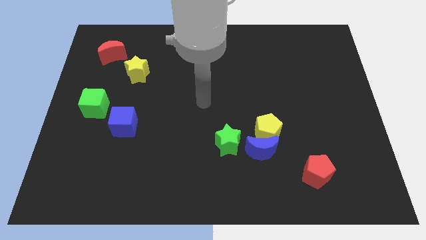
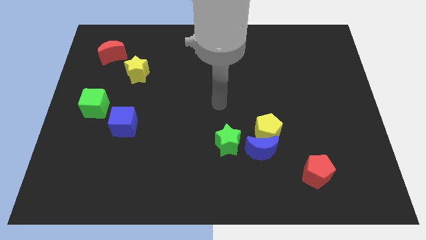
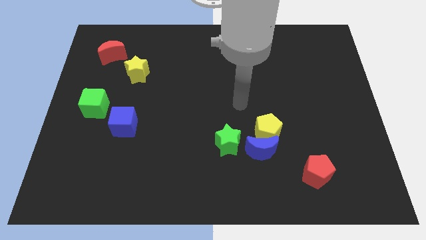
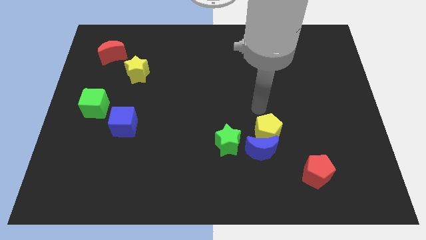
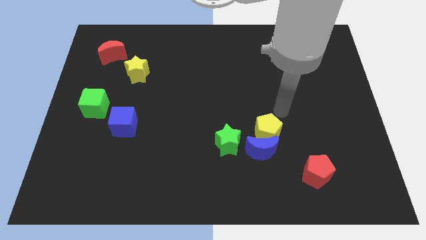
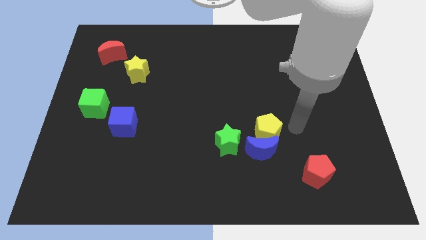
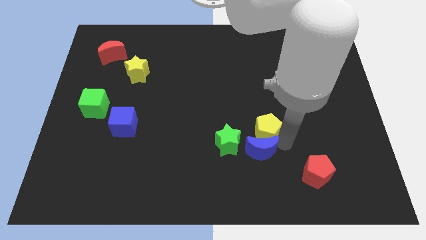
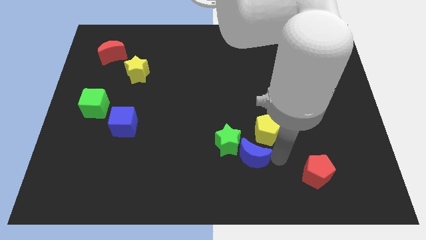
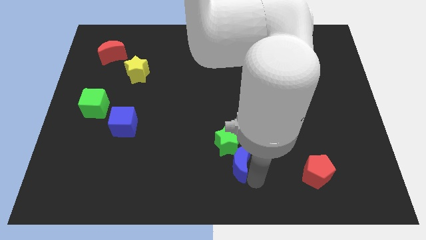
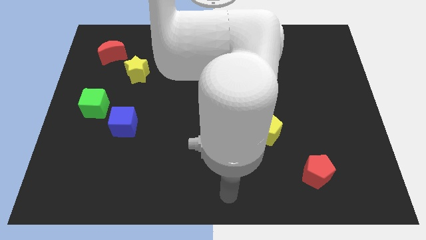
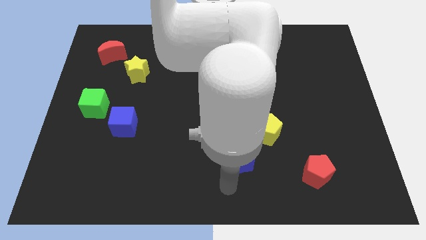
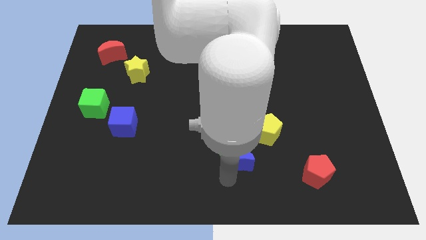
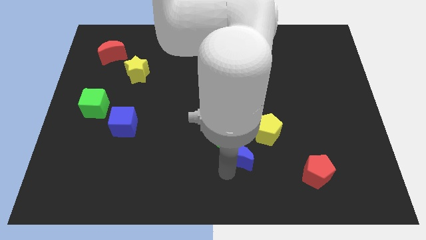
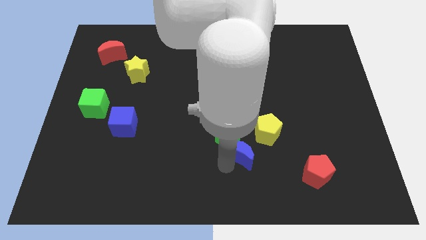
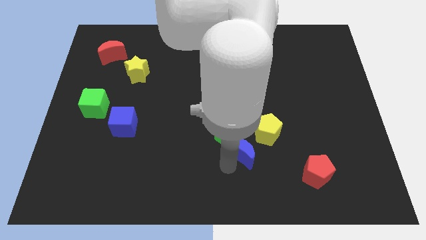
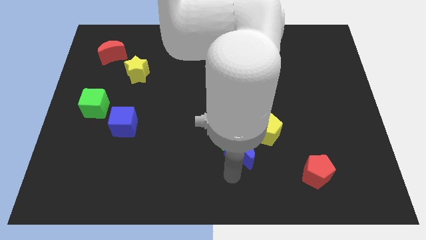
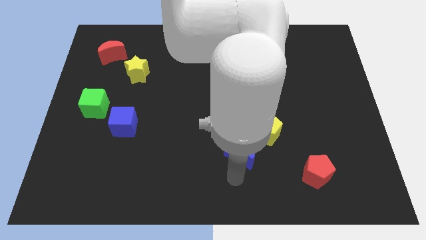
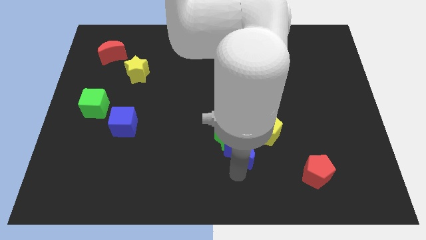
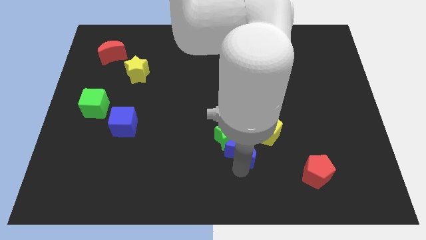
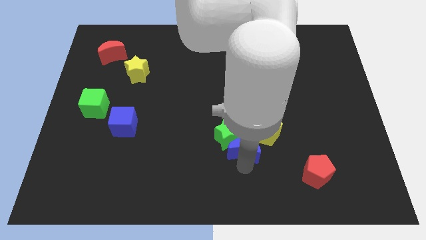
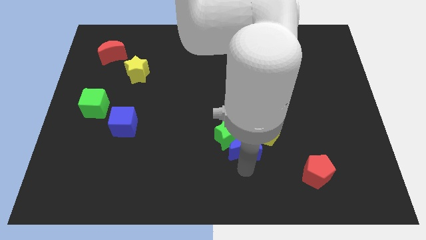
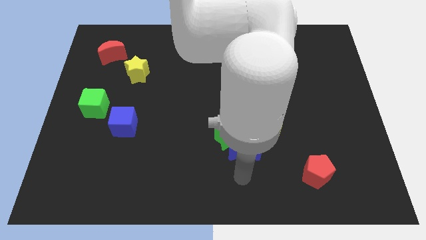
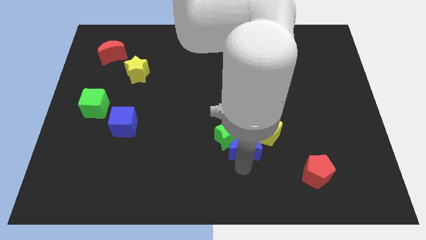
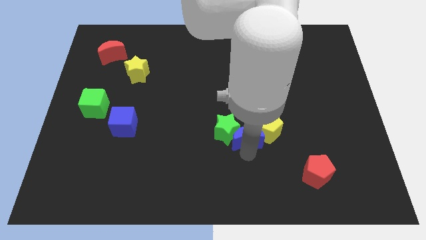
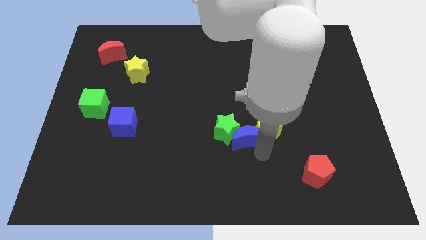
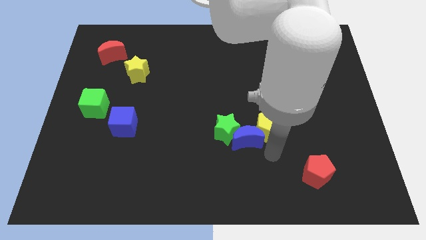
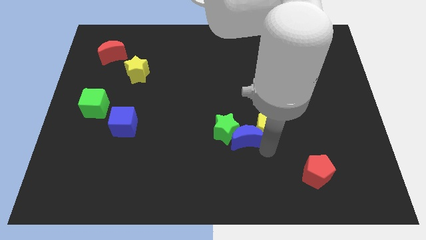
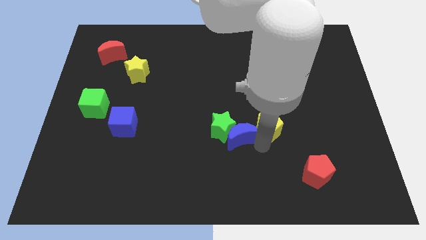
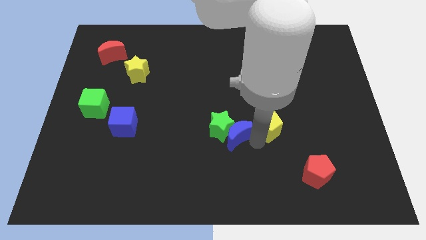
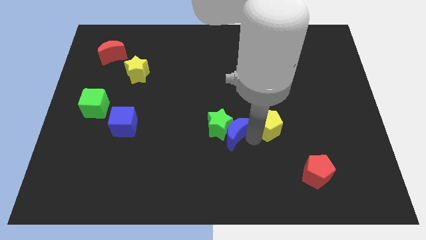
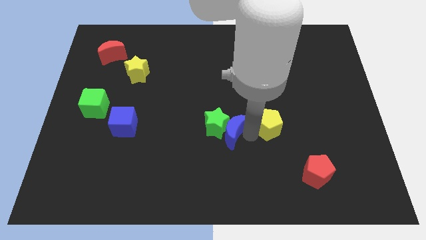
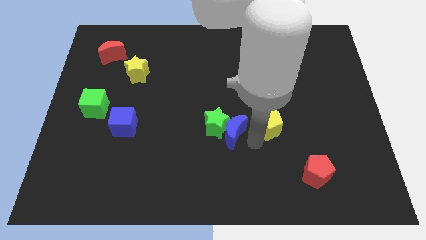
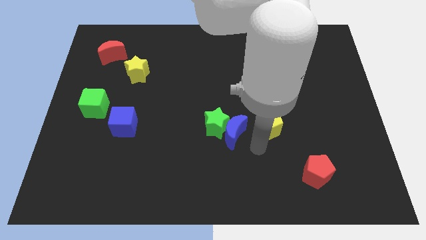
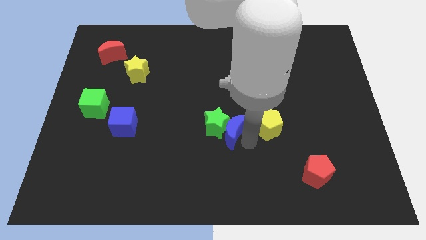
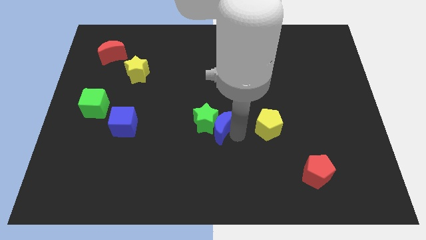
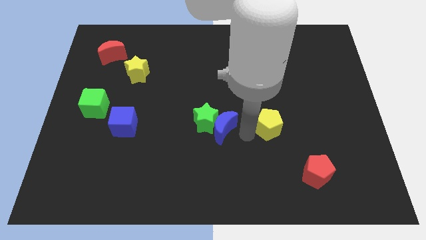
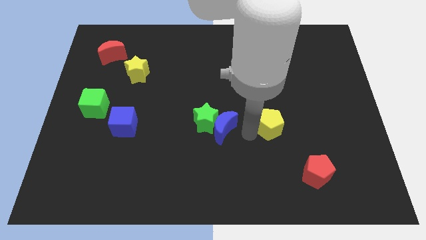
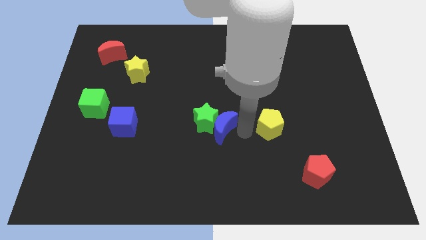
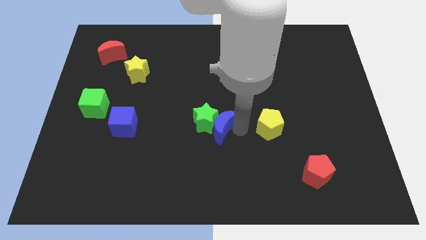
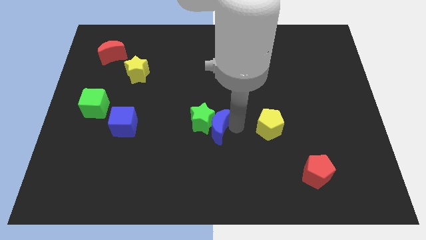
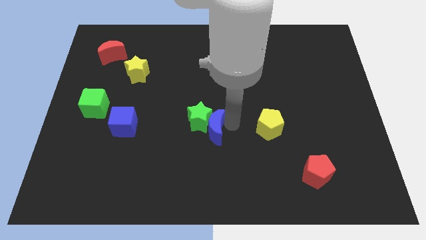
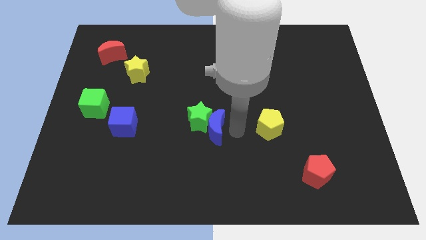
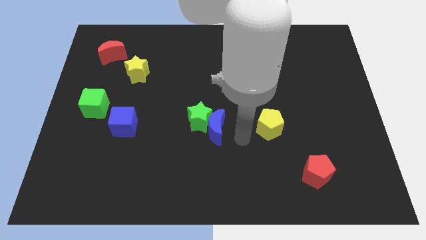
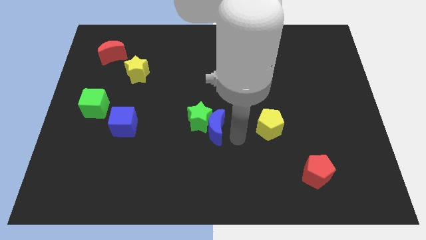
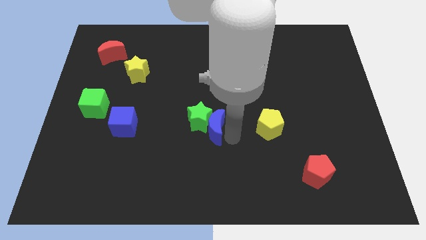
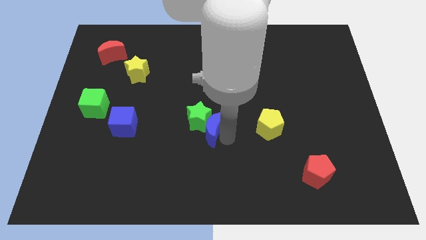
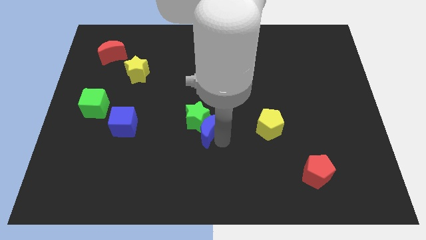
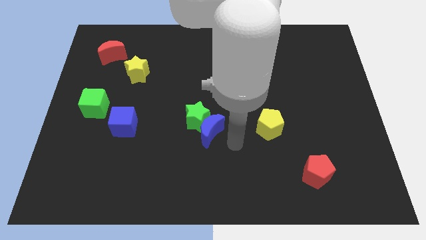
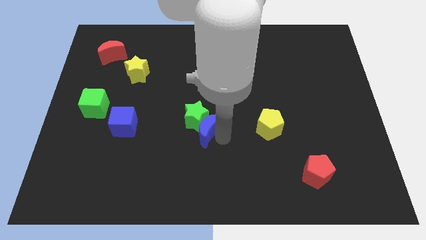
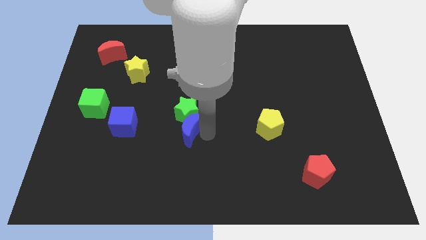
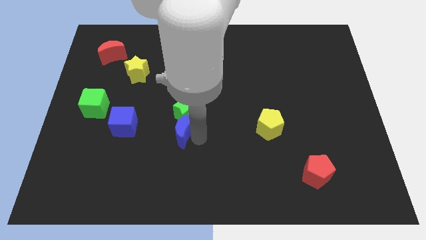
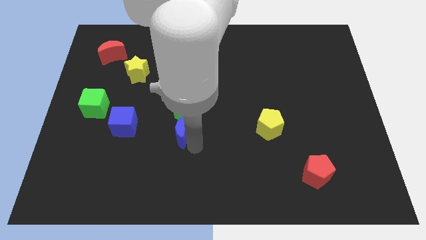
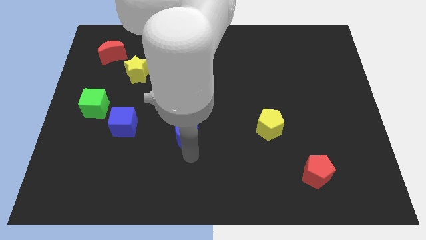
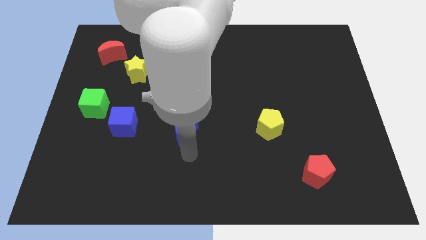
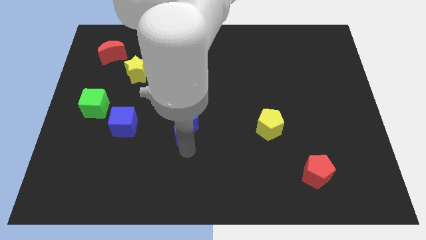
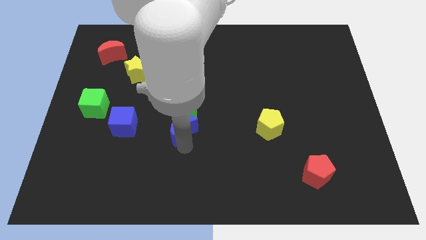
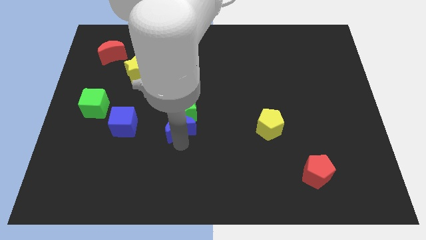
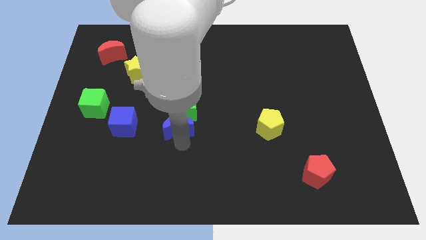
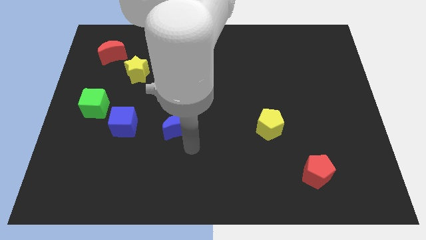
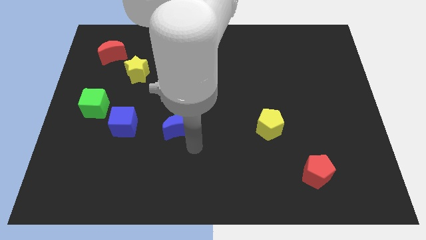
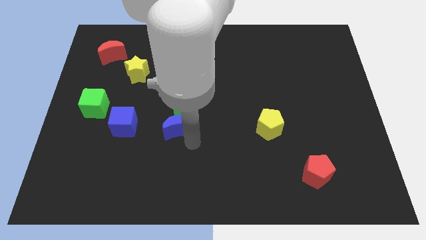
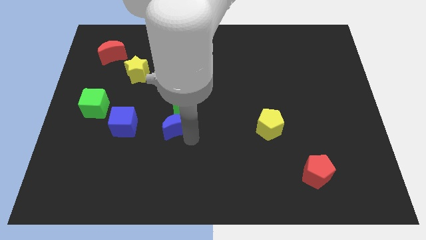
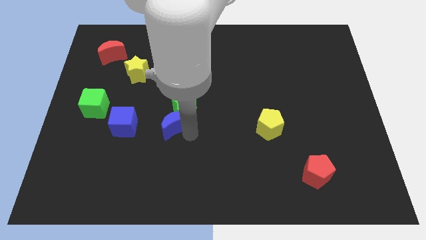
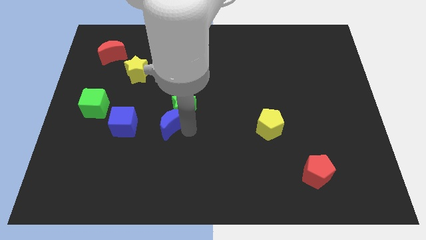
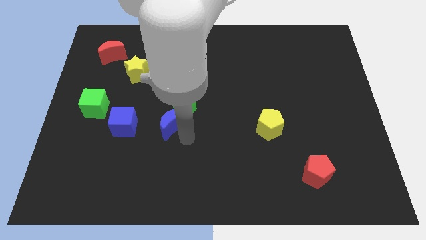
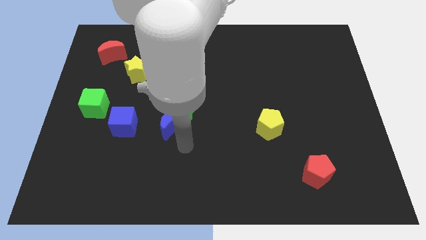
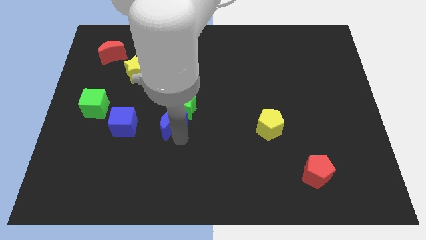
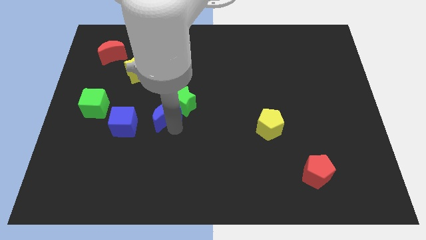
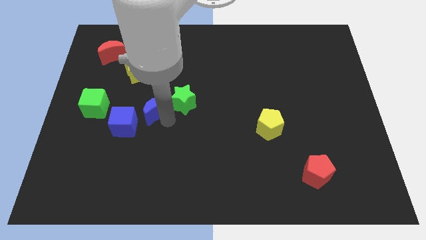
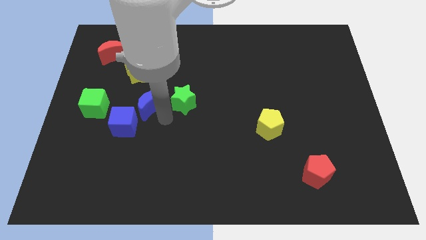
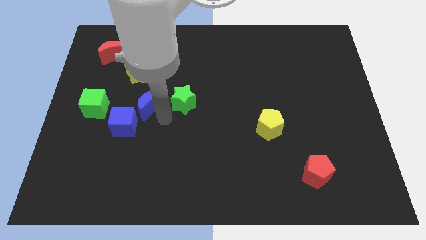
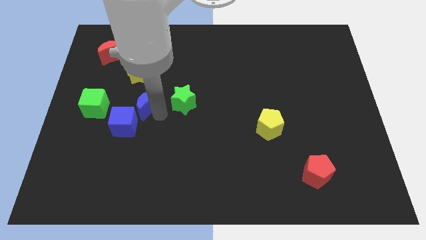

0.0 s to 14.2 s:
push the blue moon to the top of the blue cube

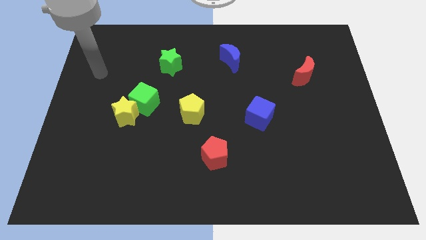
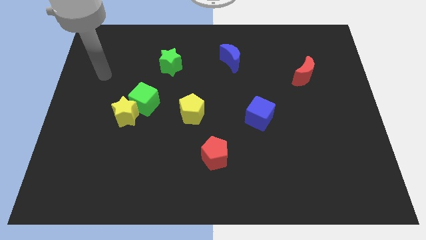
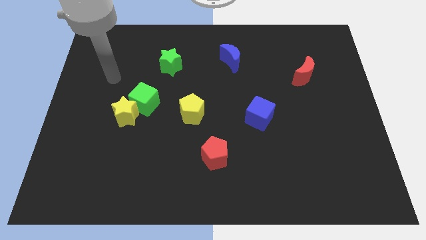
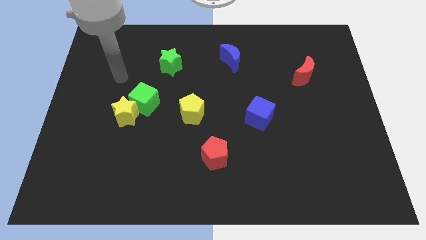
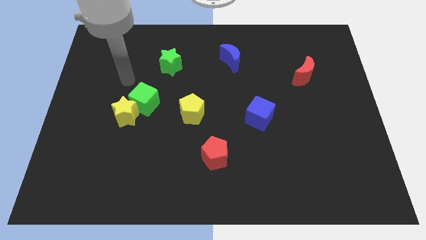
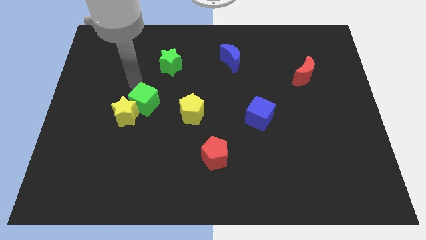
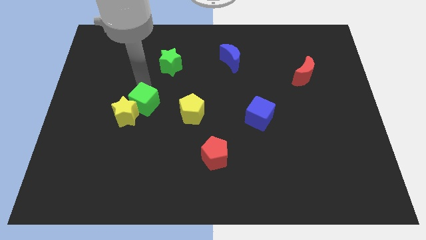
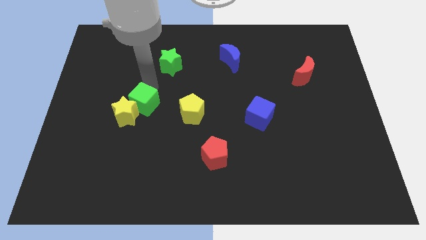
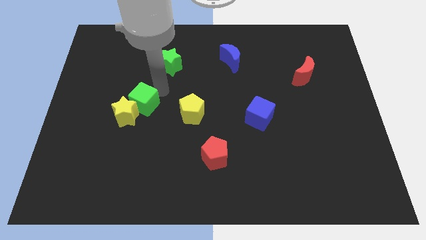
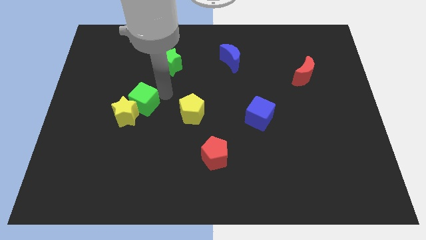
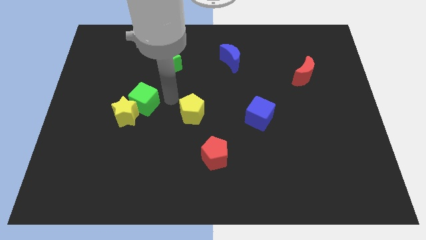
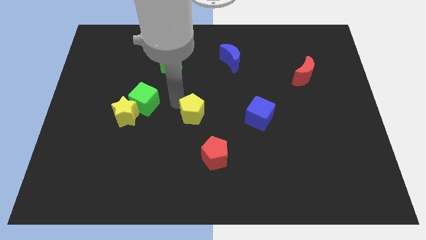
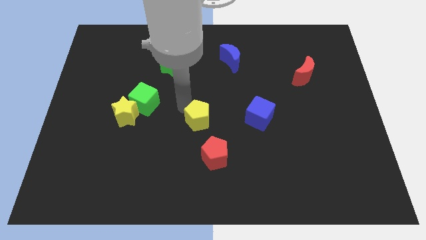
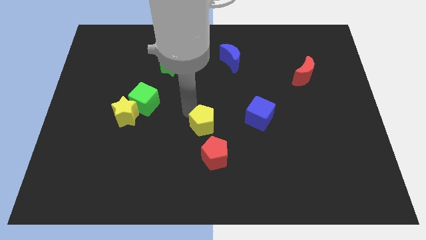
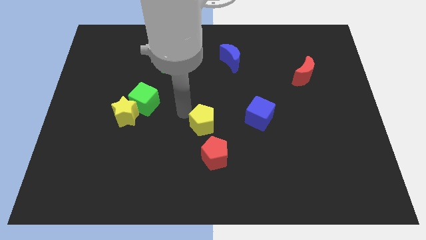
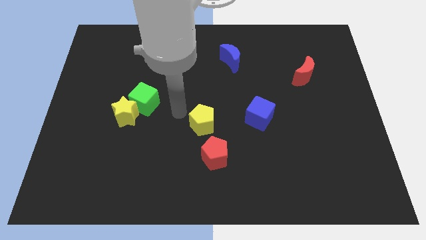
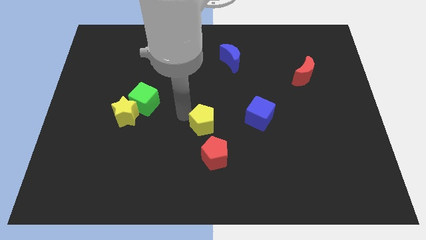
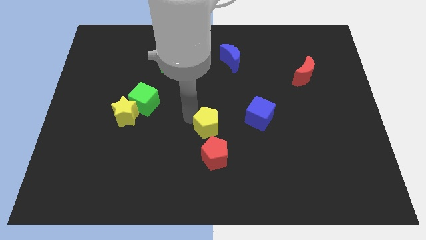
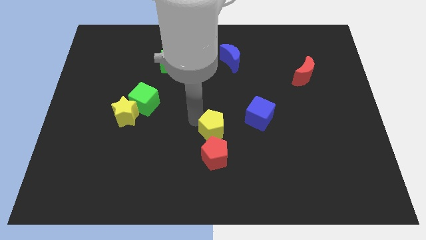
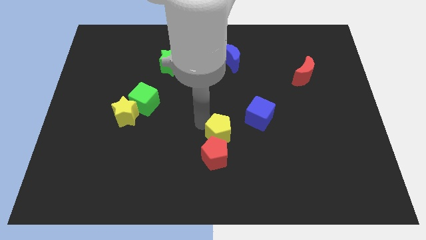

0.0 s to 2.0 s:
push the yellow pentagon to the top right side of the red pentagon
